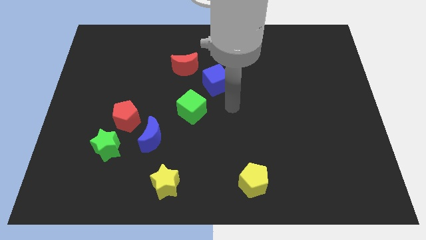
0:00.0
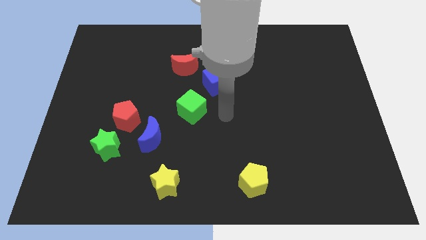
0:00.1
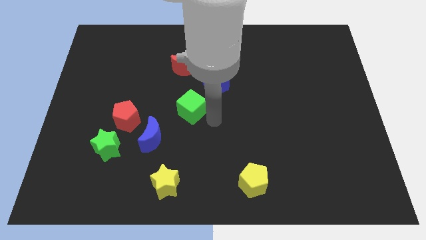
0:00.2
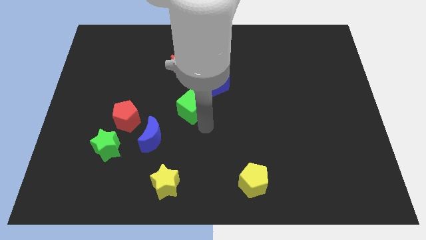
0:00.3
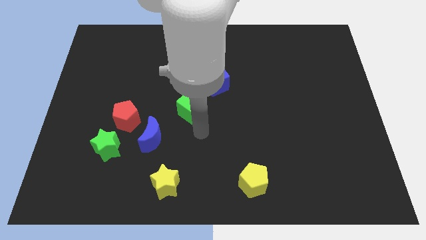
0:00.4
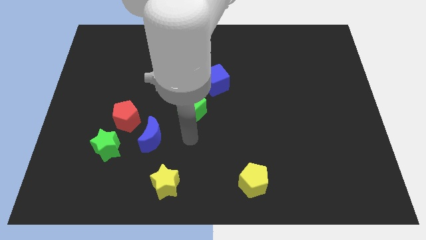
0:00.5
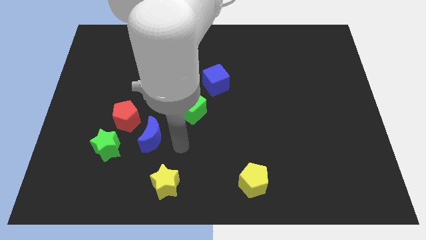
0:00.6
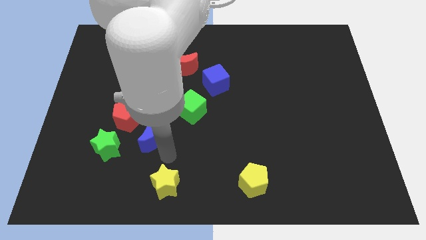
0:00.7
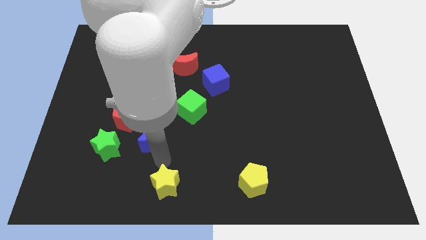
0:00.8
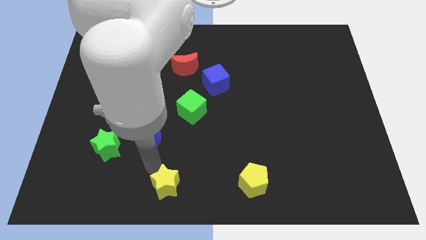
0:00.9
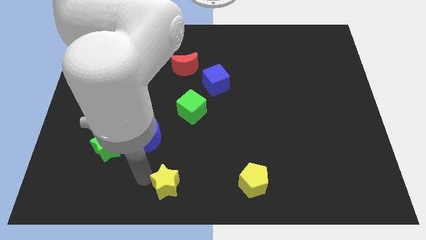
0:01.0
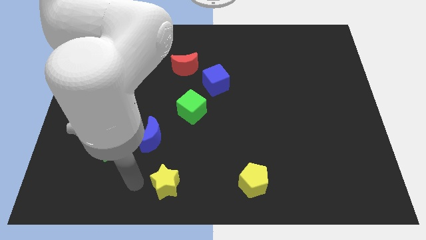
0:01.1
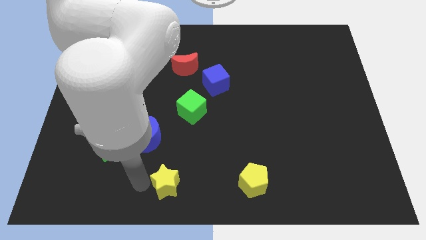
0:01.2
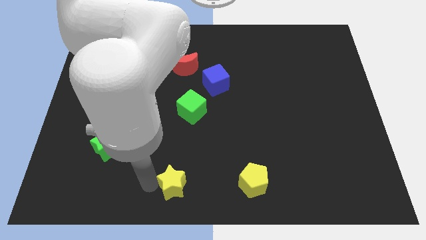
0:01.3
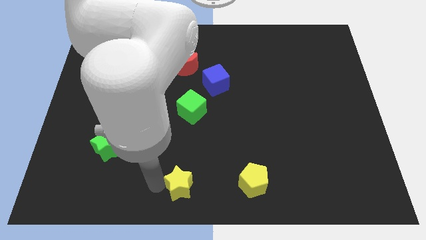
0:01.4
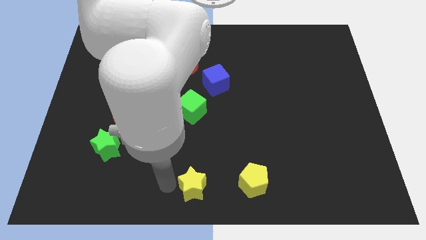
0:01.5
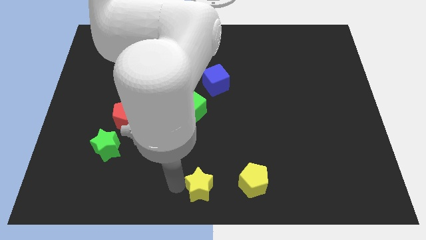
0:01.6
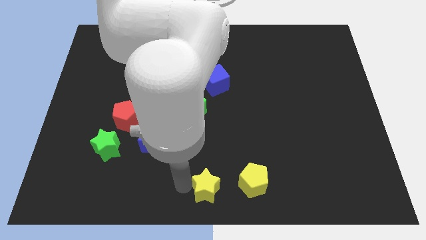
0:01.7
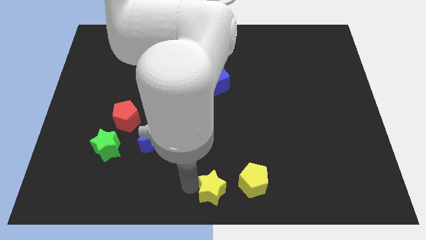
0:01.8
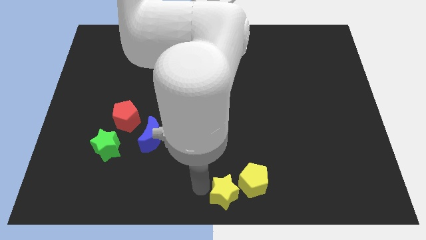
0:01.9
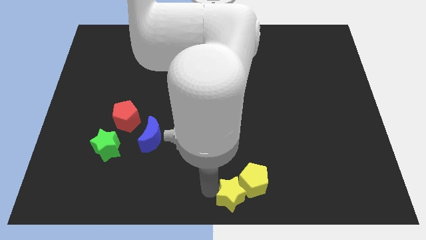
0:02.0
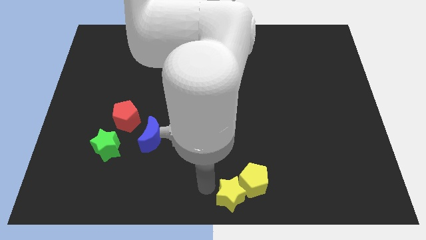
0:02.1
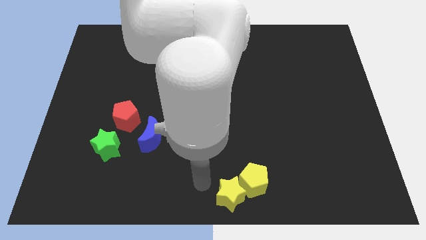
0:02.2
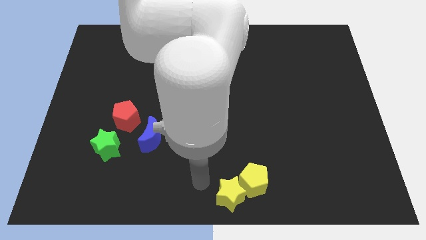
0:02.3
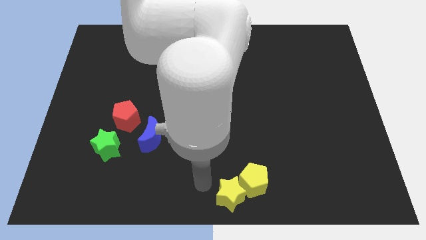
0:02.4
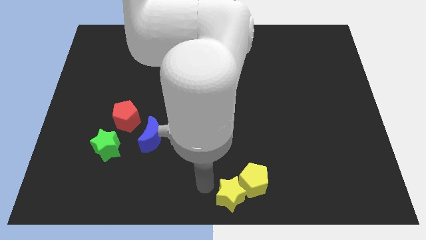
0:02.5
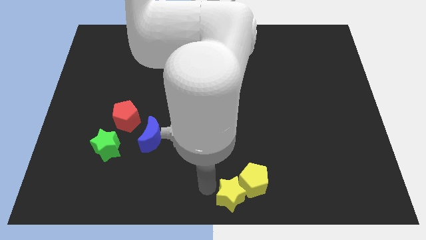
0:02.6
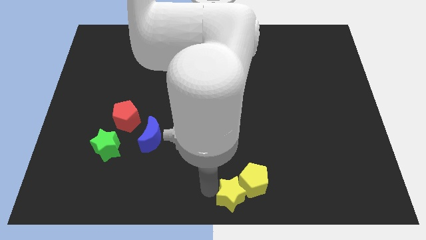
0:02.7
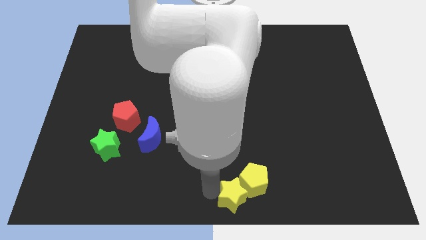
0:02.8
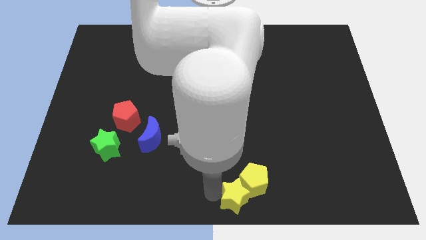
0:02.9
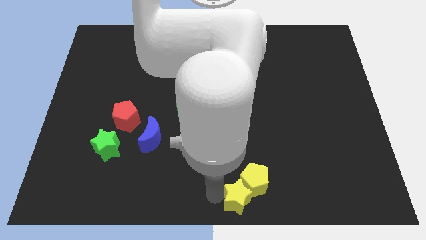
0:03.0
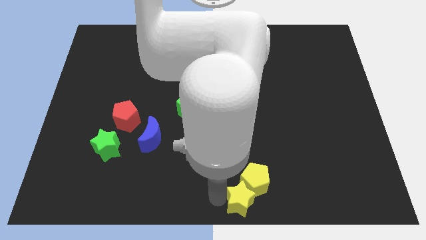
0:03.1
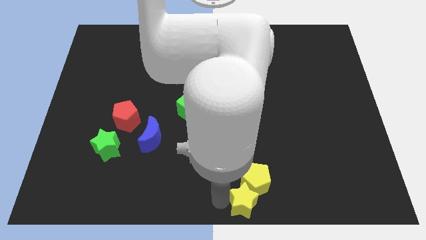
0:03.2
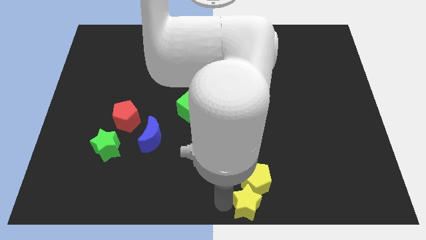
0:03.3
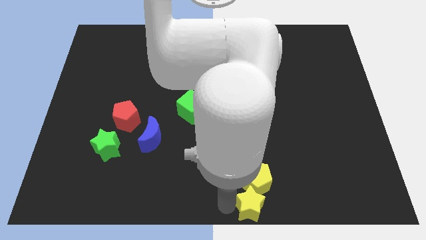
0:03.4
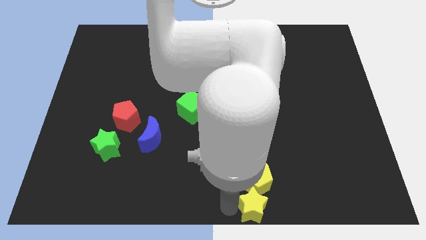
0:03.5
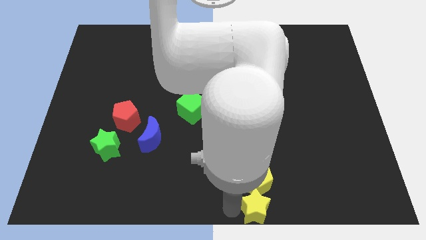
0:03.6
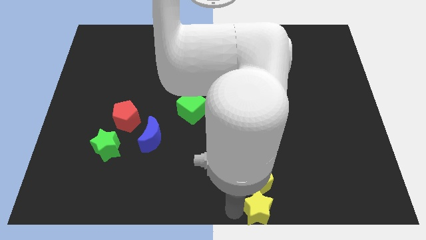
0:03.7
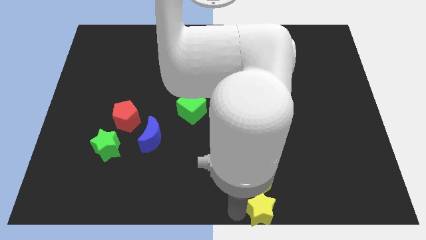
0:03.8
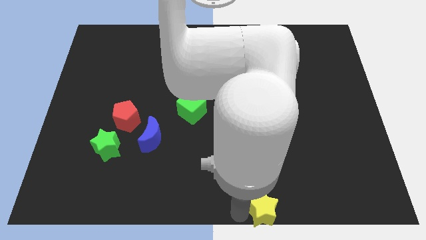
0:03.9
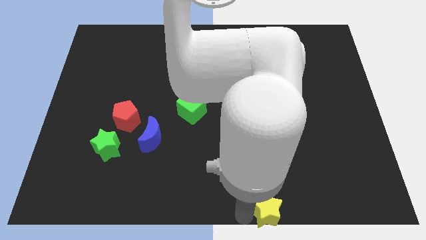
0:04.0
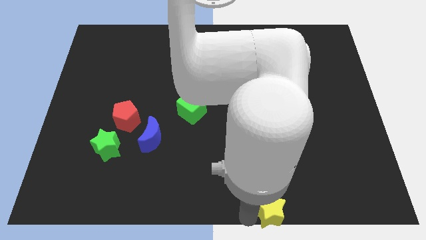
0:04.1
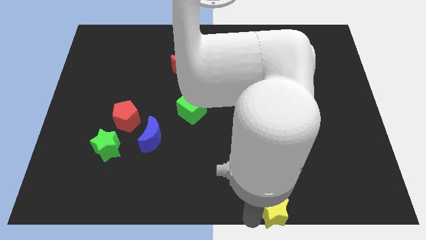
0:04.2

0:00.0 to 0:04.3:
push the yellow star to the right

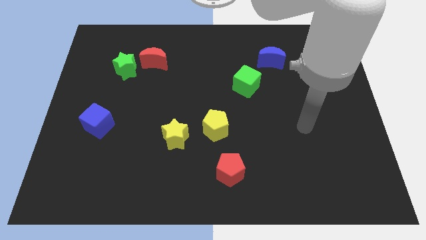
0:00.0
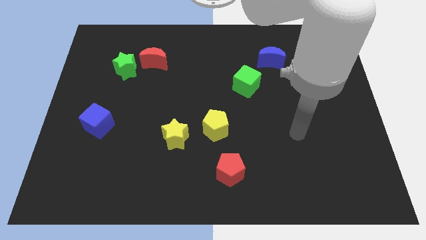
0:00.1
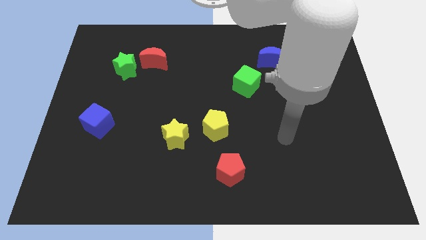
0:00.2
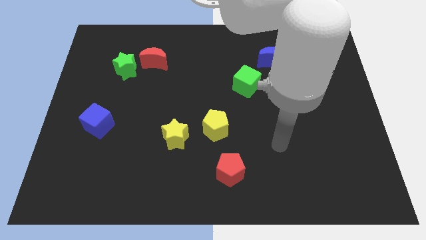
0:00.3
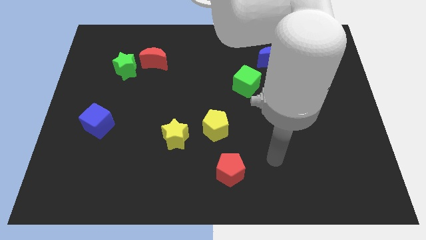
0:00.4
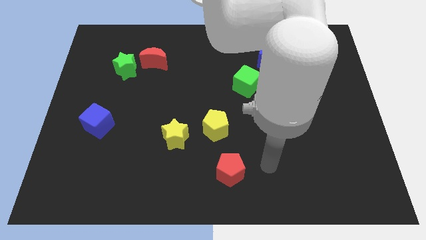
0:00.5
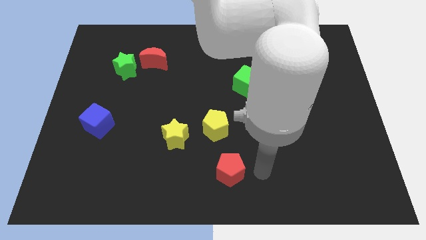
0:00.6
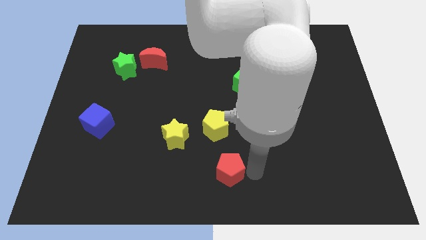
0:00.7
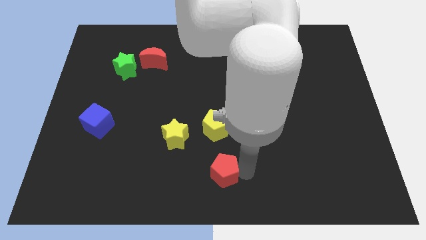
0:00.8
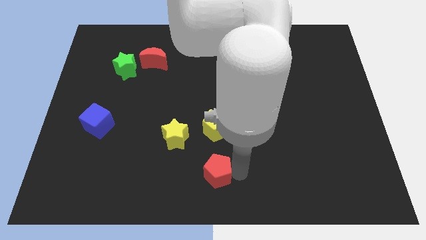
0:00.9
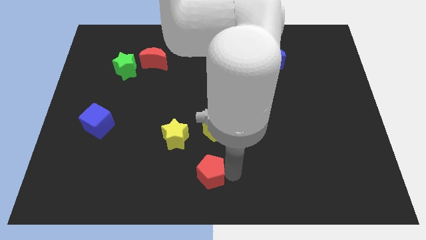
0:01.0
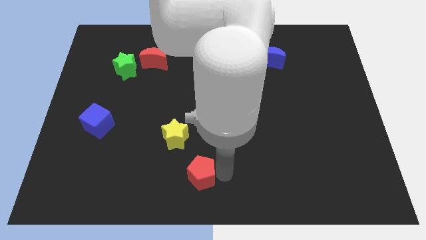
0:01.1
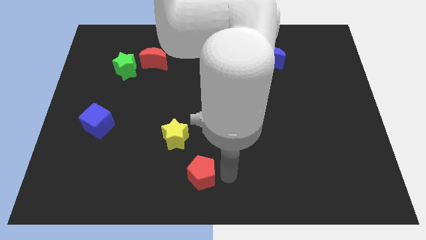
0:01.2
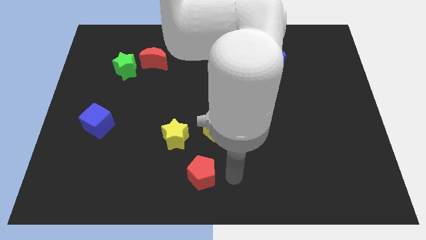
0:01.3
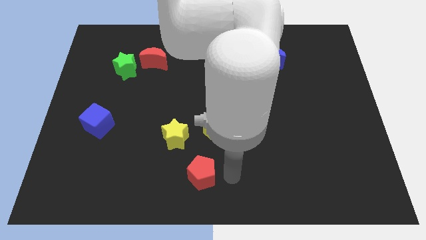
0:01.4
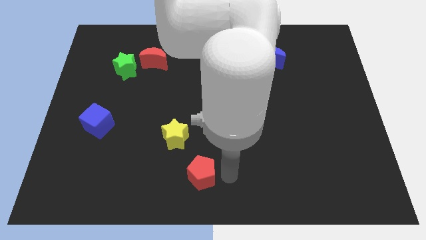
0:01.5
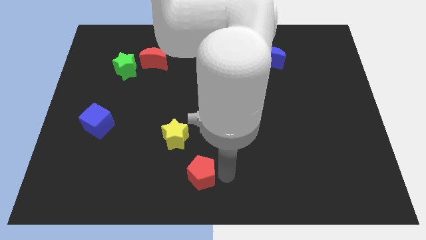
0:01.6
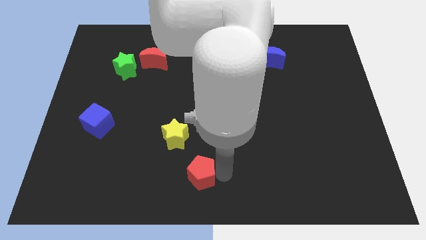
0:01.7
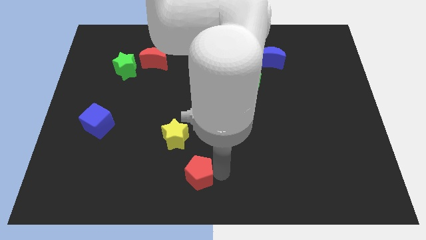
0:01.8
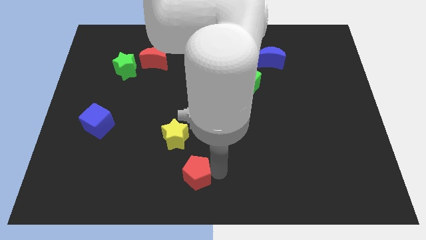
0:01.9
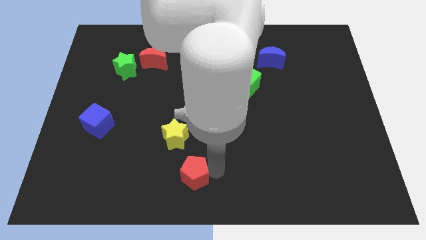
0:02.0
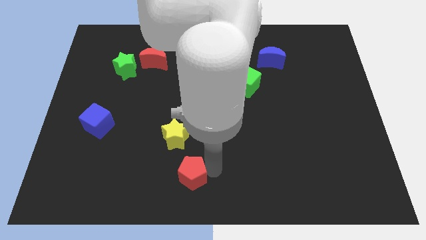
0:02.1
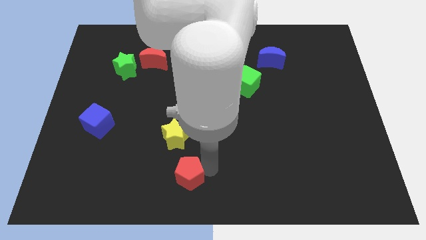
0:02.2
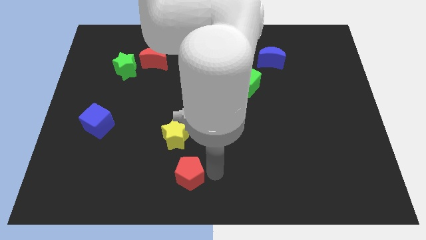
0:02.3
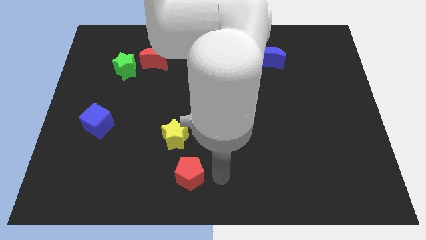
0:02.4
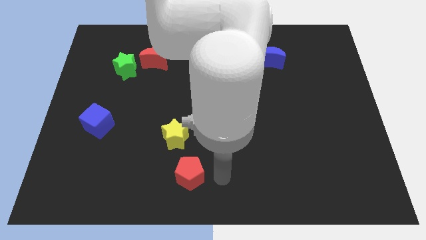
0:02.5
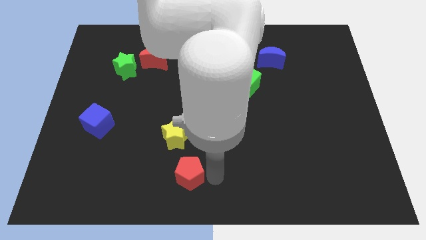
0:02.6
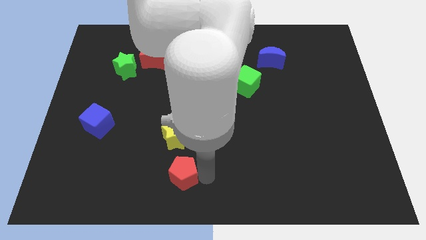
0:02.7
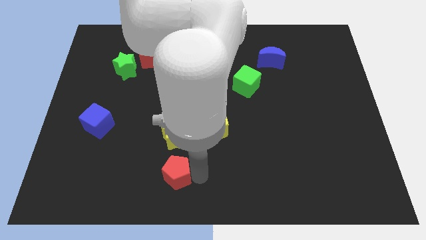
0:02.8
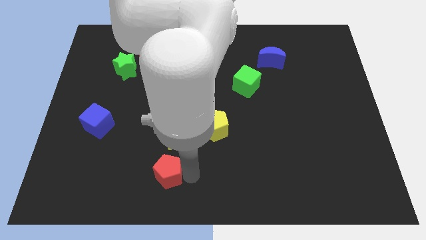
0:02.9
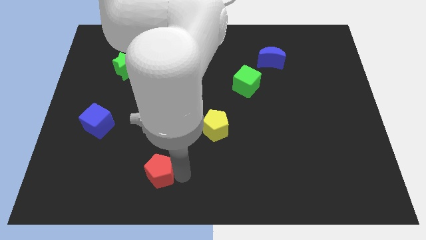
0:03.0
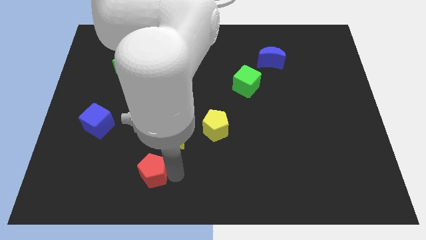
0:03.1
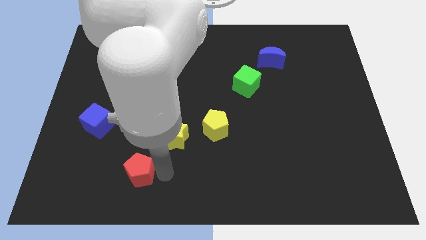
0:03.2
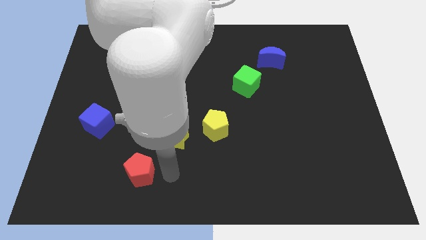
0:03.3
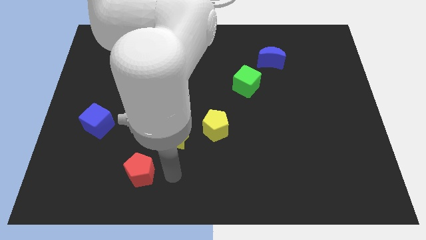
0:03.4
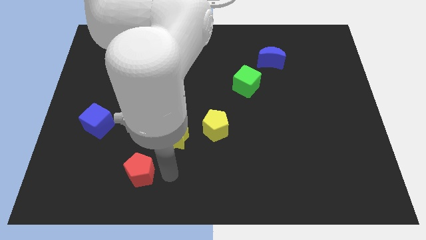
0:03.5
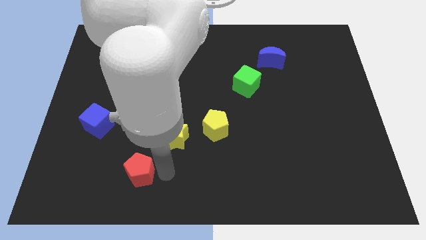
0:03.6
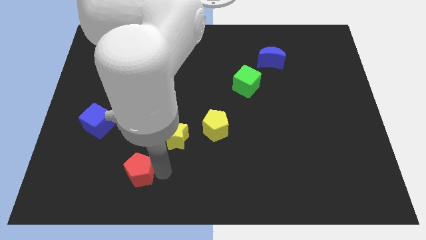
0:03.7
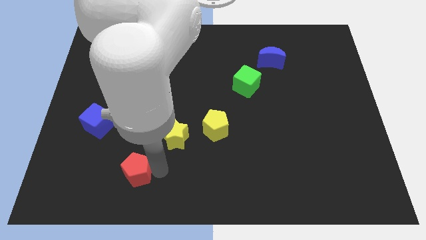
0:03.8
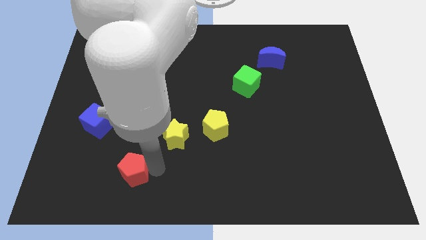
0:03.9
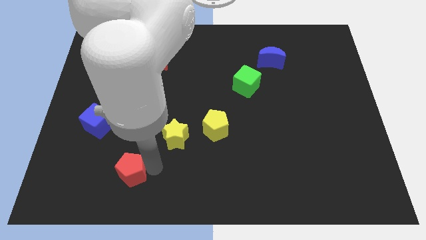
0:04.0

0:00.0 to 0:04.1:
slide the red pentagon to the left

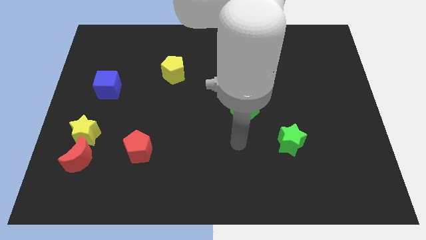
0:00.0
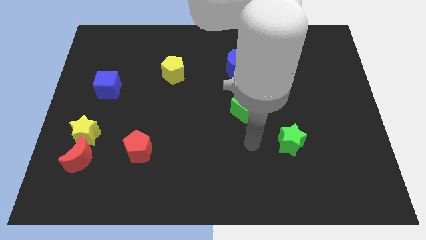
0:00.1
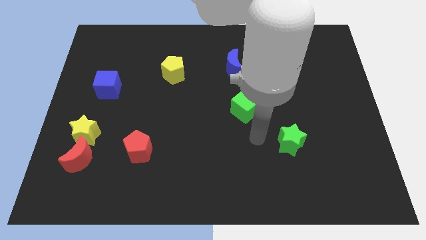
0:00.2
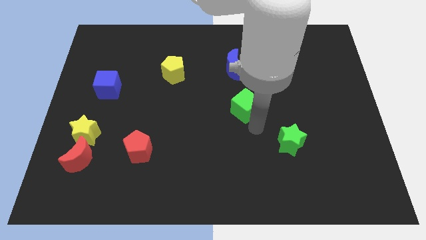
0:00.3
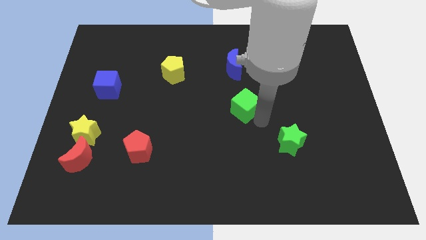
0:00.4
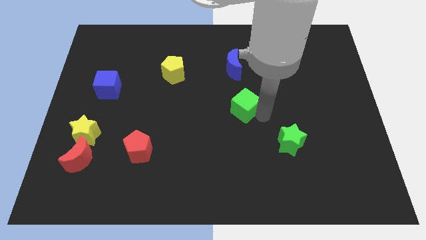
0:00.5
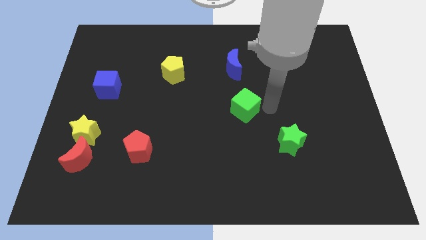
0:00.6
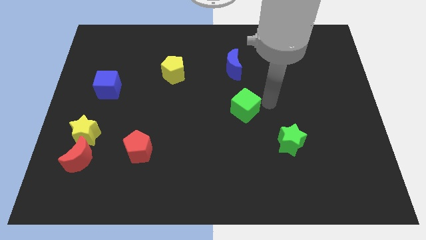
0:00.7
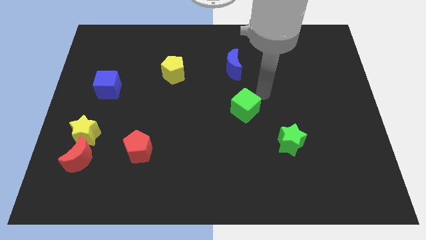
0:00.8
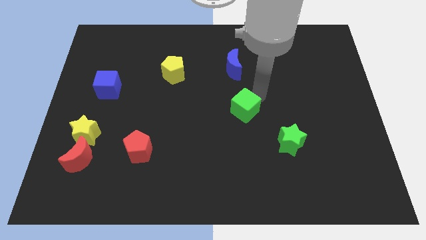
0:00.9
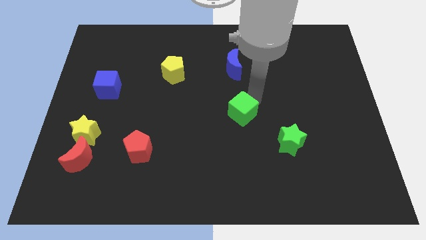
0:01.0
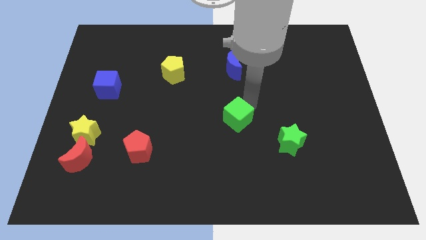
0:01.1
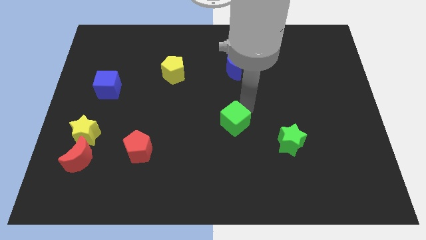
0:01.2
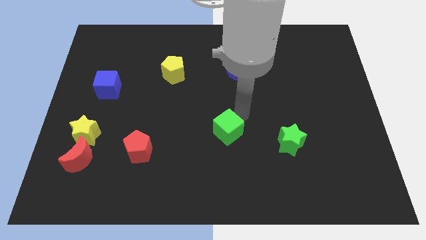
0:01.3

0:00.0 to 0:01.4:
slightly move the green cube downwards and left diagonally
